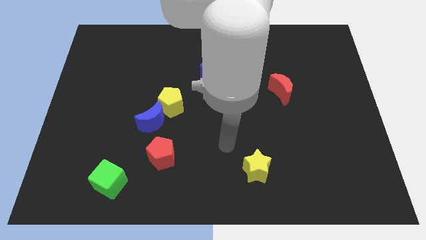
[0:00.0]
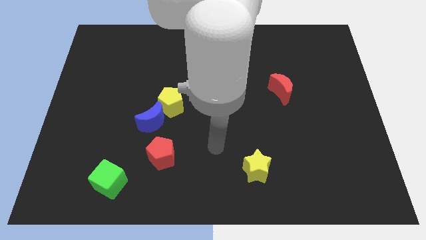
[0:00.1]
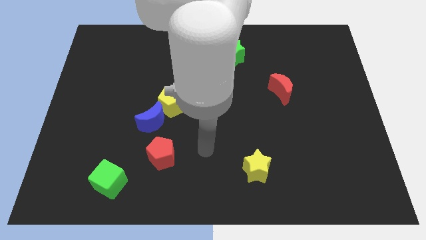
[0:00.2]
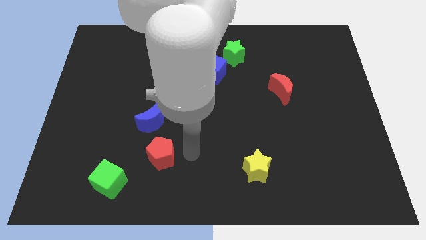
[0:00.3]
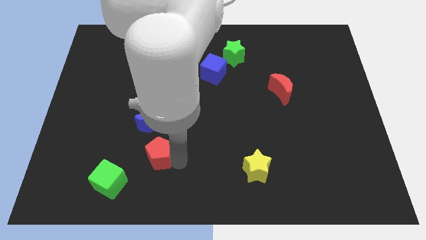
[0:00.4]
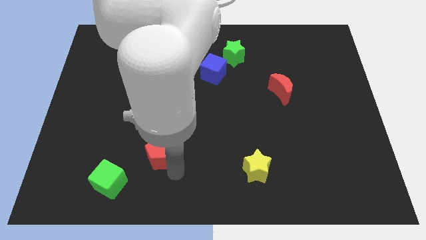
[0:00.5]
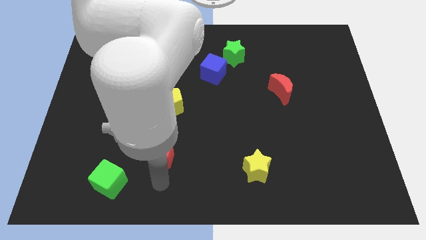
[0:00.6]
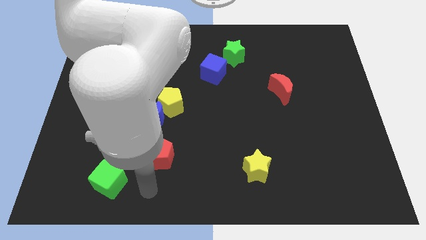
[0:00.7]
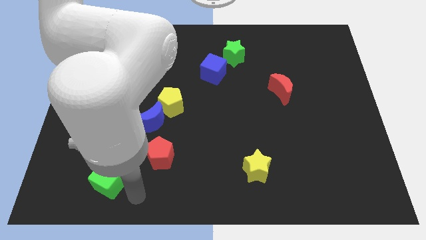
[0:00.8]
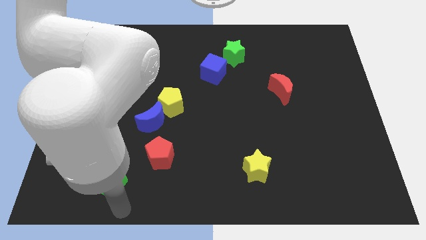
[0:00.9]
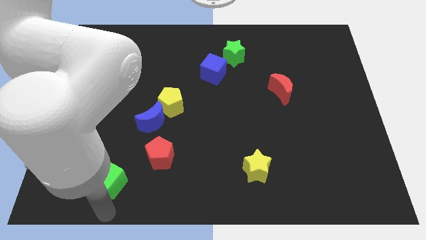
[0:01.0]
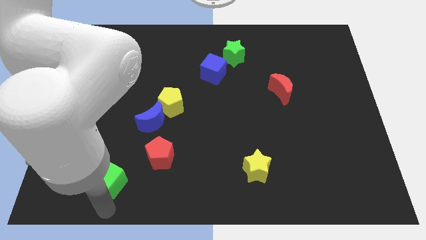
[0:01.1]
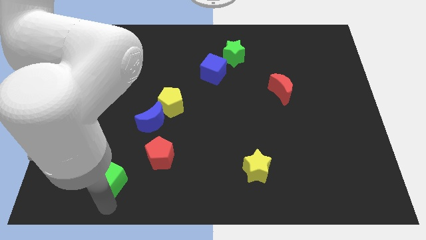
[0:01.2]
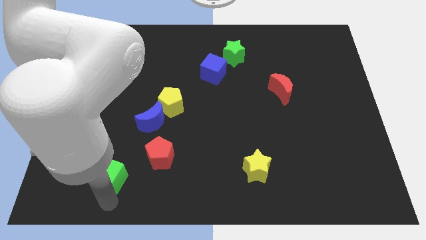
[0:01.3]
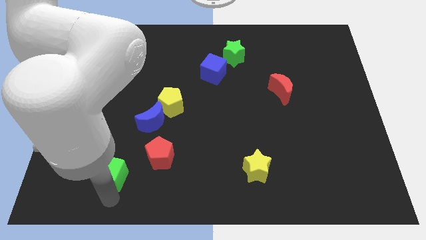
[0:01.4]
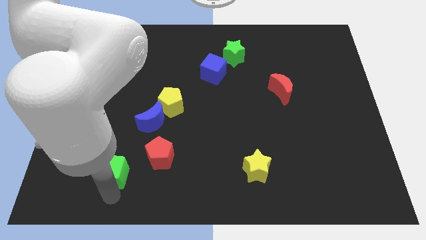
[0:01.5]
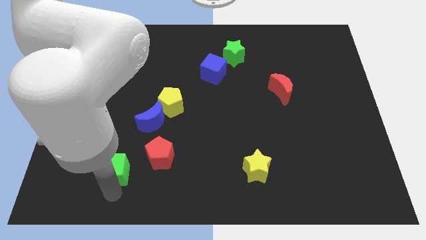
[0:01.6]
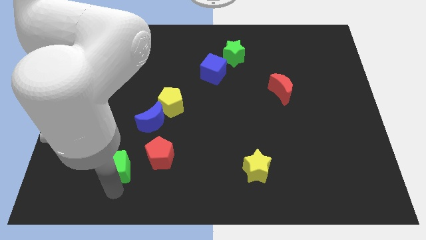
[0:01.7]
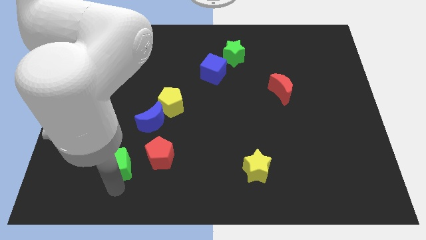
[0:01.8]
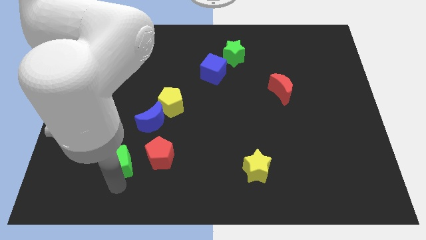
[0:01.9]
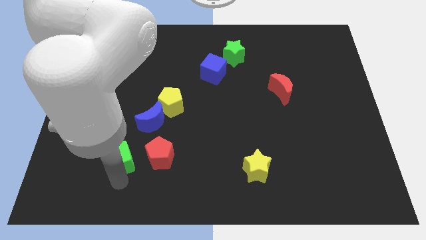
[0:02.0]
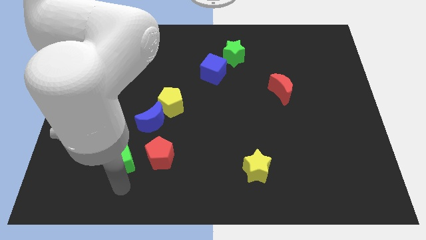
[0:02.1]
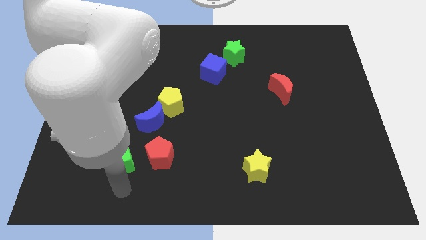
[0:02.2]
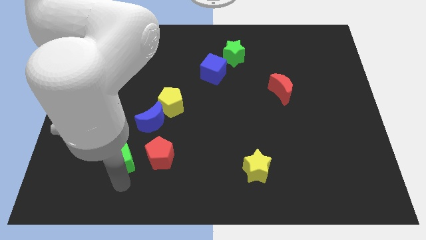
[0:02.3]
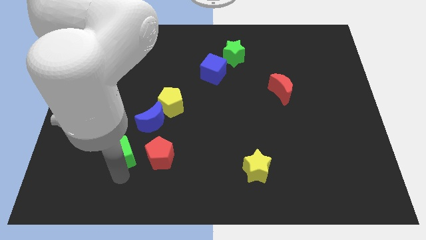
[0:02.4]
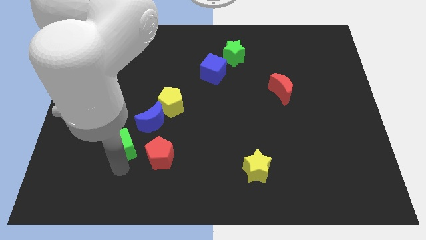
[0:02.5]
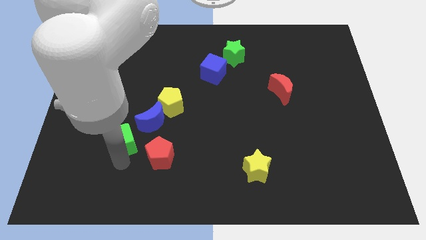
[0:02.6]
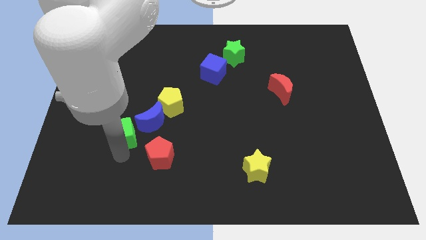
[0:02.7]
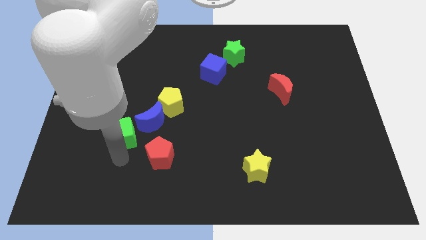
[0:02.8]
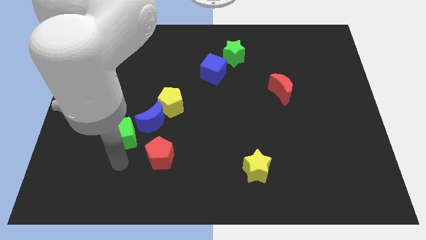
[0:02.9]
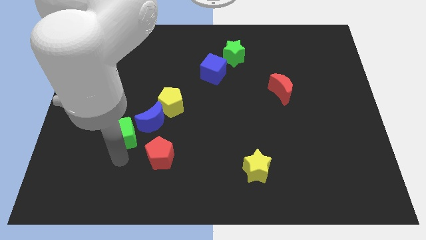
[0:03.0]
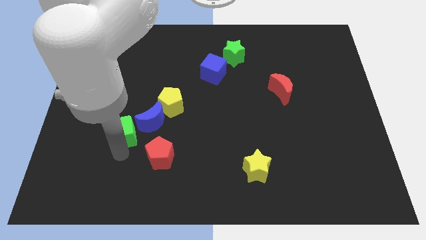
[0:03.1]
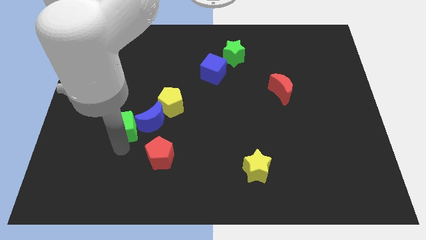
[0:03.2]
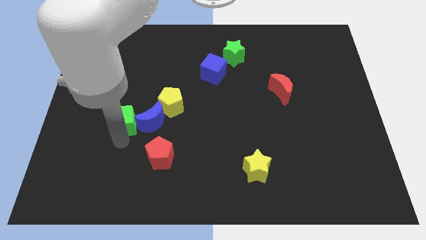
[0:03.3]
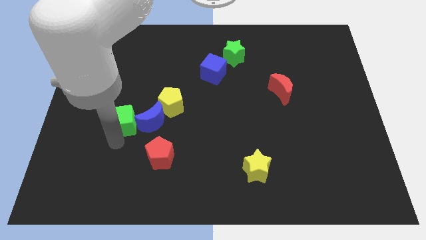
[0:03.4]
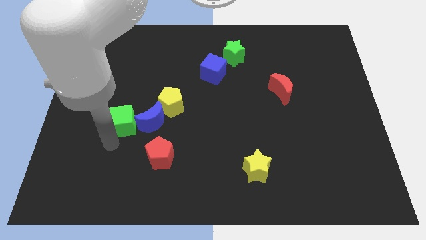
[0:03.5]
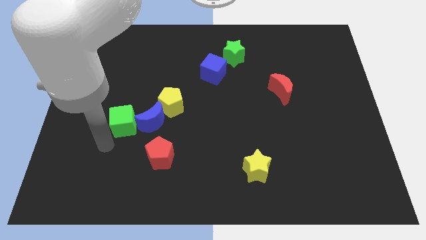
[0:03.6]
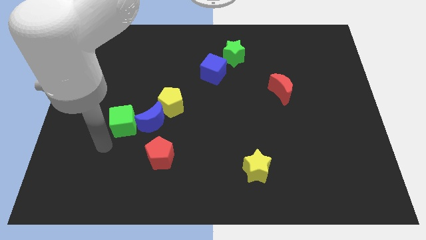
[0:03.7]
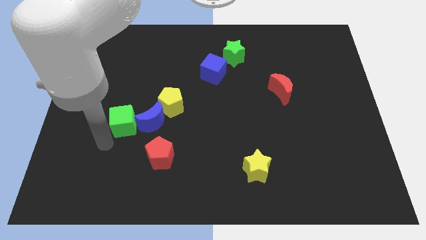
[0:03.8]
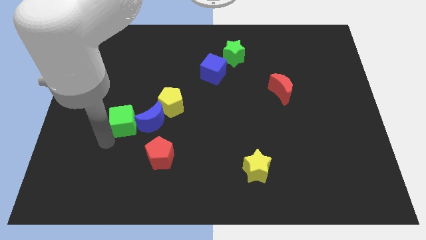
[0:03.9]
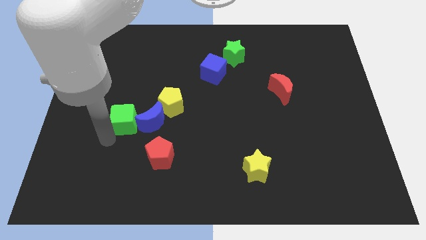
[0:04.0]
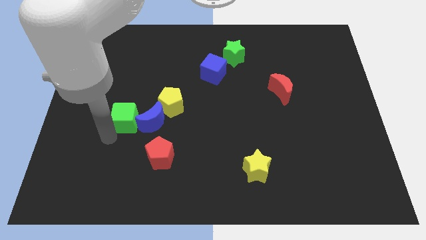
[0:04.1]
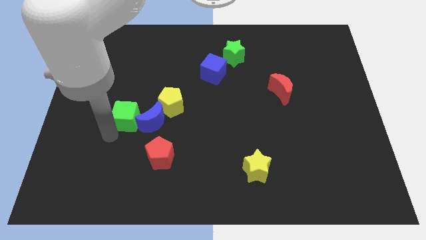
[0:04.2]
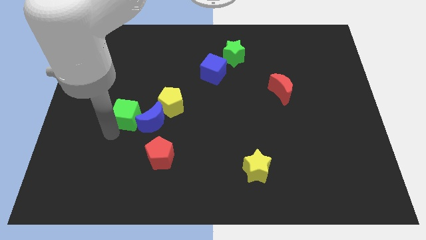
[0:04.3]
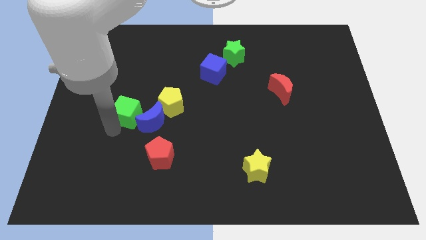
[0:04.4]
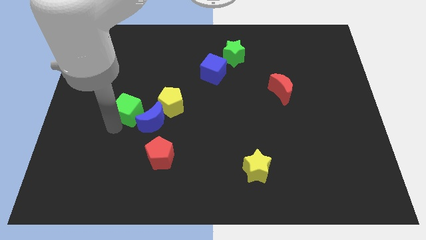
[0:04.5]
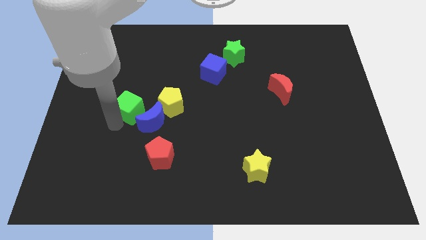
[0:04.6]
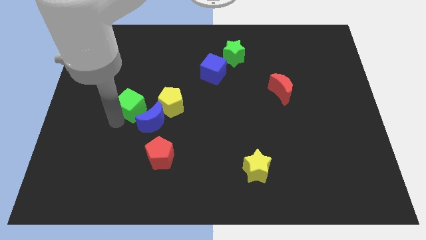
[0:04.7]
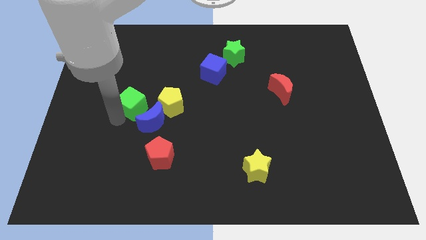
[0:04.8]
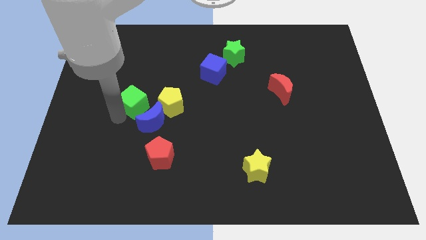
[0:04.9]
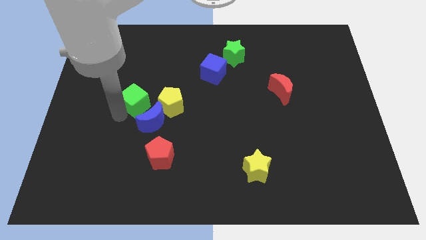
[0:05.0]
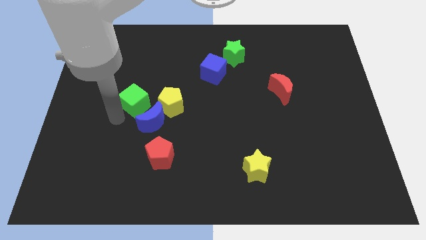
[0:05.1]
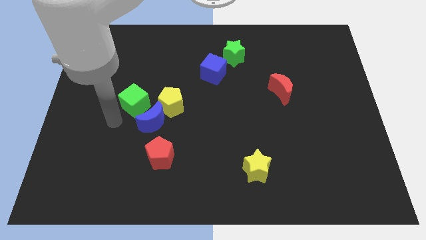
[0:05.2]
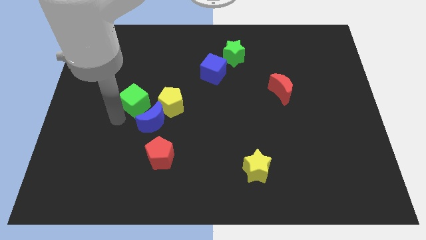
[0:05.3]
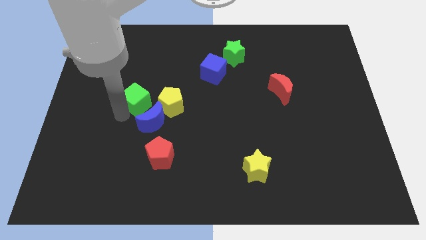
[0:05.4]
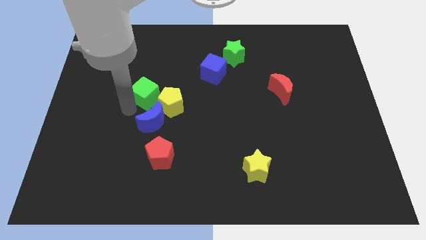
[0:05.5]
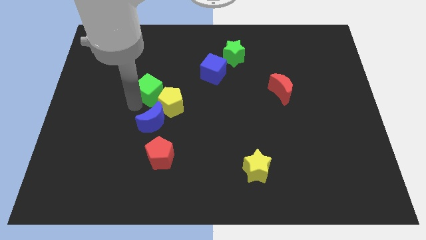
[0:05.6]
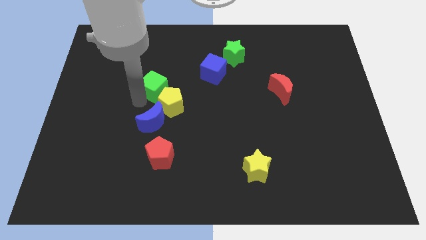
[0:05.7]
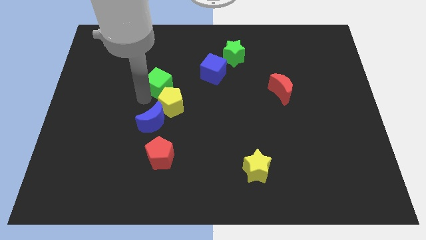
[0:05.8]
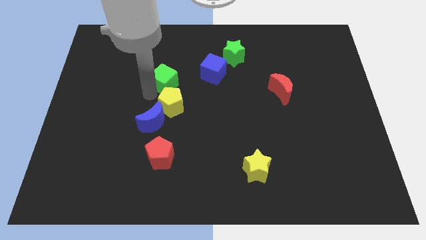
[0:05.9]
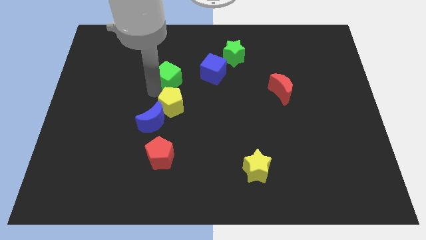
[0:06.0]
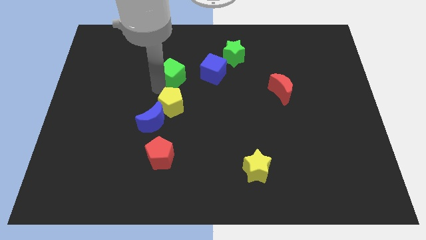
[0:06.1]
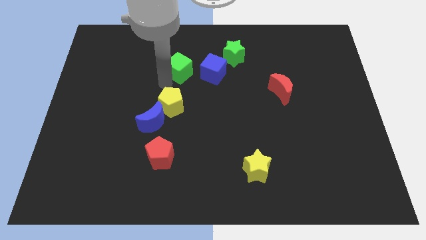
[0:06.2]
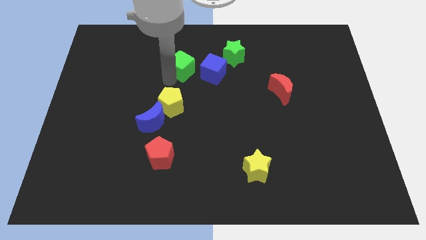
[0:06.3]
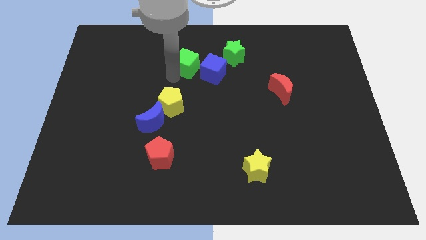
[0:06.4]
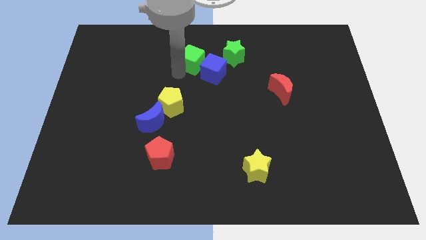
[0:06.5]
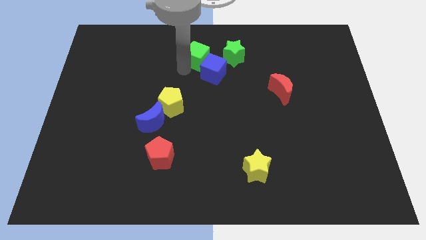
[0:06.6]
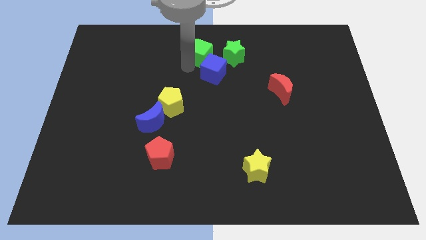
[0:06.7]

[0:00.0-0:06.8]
move the green cube to the towards your base
